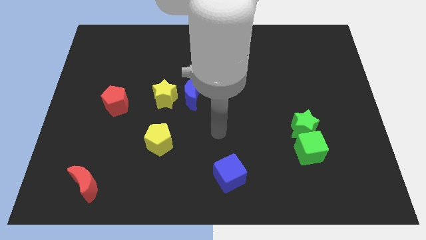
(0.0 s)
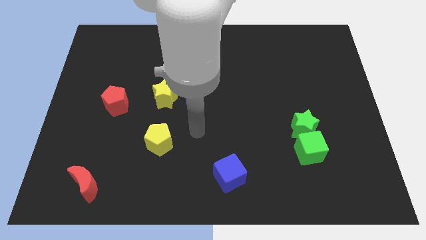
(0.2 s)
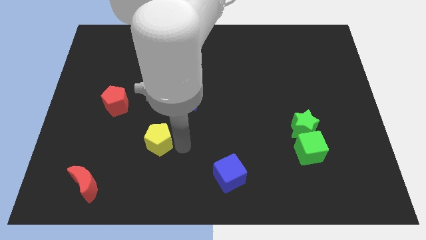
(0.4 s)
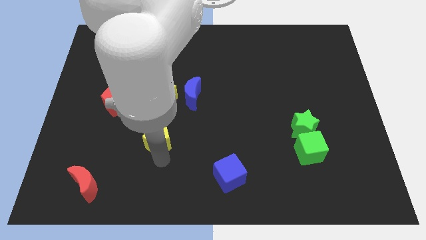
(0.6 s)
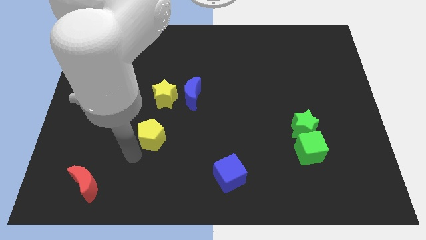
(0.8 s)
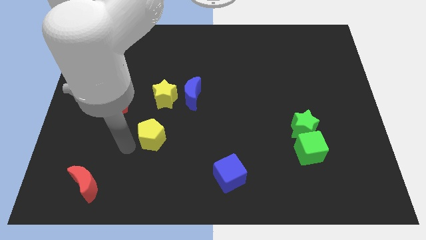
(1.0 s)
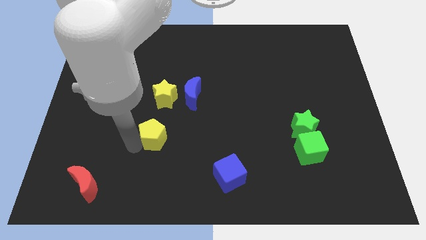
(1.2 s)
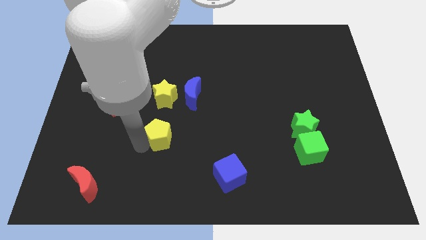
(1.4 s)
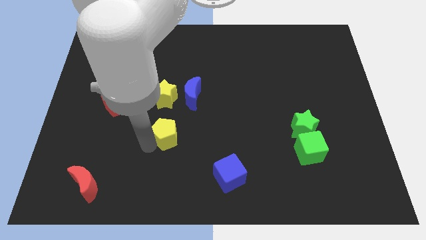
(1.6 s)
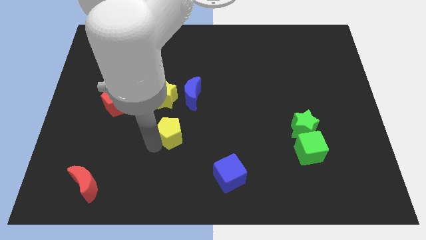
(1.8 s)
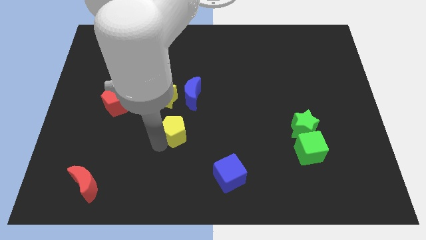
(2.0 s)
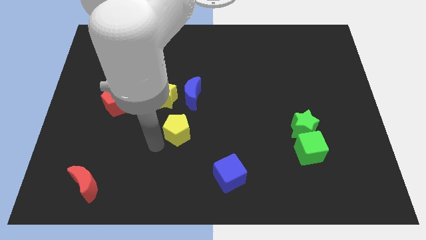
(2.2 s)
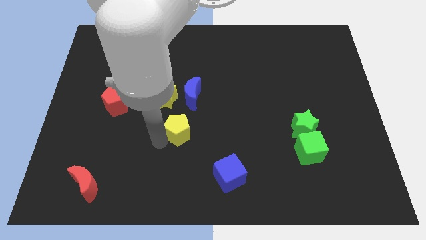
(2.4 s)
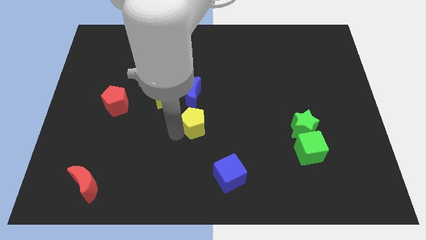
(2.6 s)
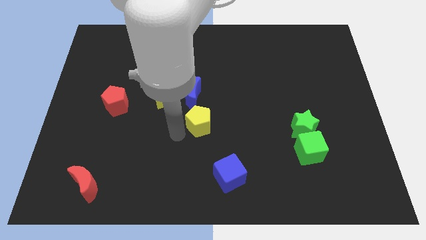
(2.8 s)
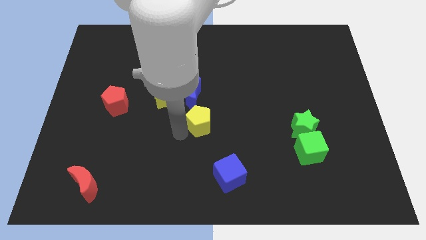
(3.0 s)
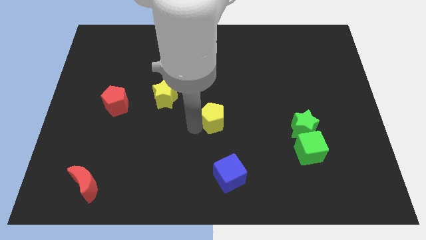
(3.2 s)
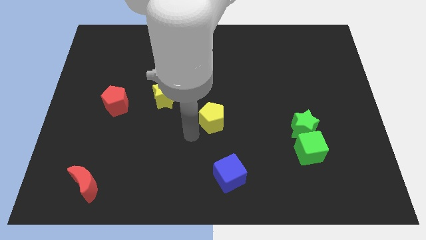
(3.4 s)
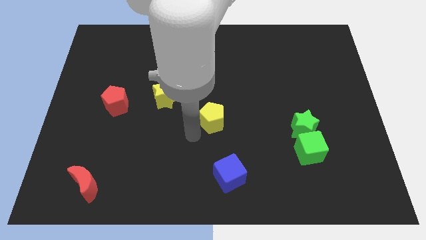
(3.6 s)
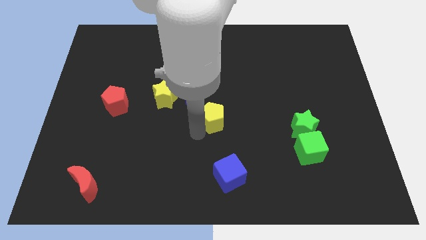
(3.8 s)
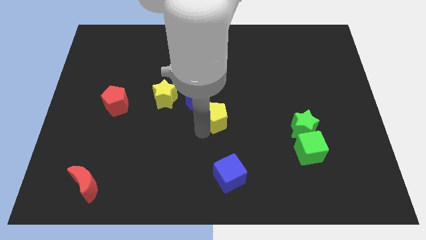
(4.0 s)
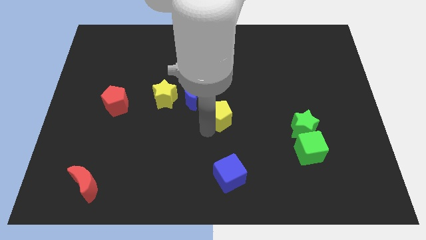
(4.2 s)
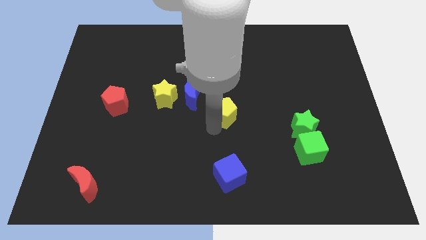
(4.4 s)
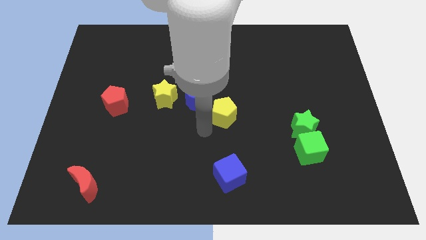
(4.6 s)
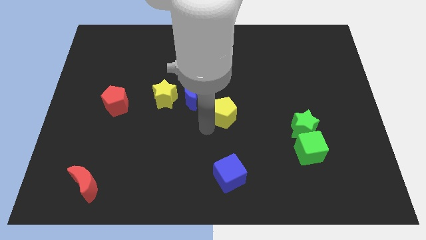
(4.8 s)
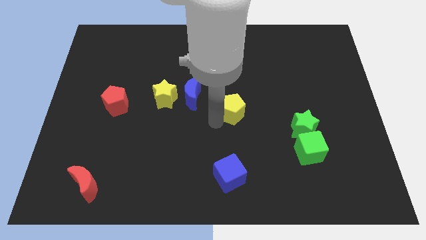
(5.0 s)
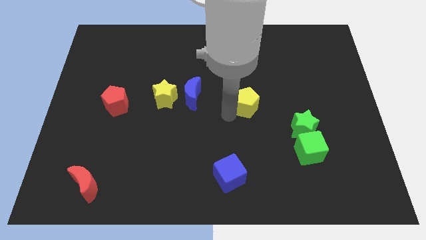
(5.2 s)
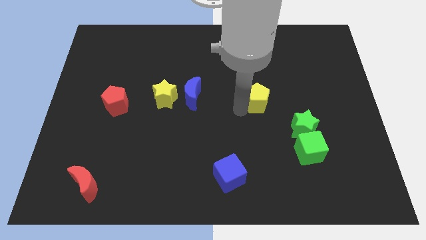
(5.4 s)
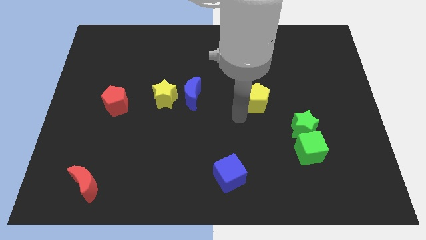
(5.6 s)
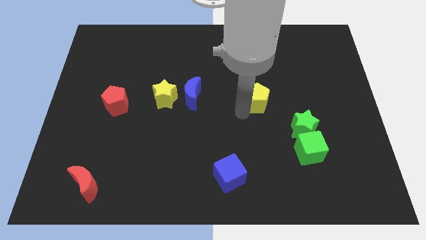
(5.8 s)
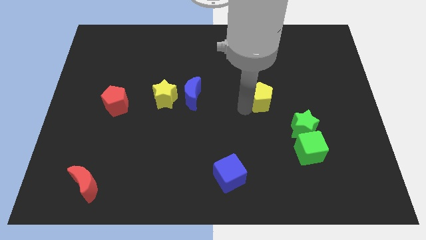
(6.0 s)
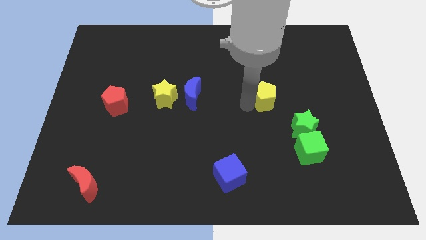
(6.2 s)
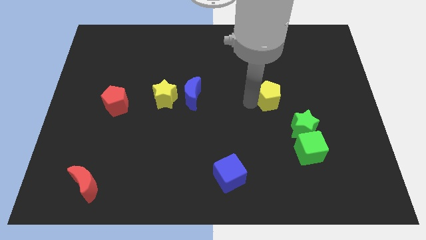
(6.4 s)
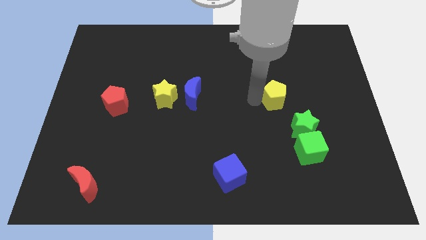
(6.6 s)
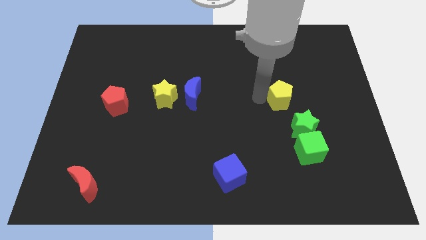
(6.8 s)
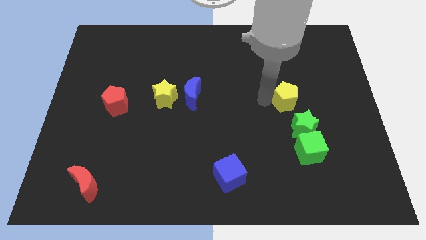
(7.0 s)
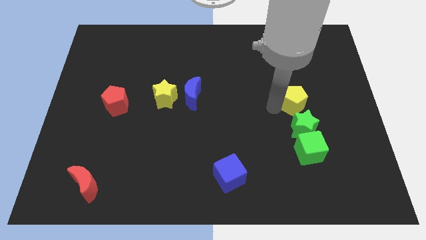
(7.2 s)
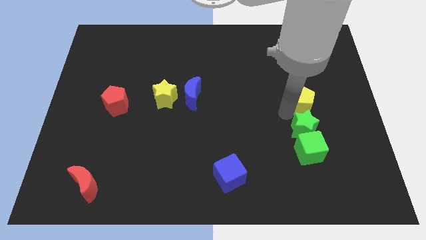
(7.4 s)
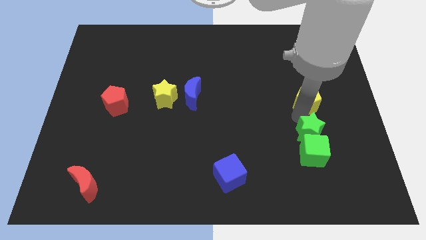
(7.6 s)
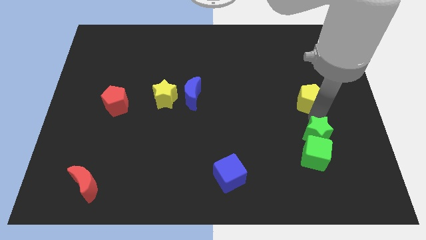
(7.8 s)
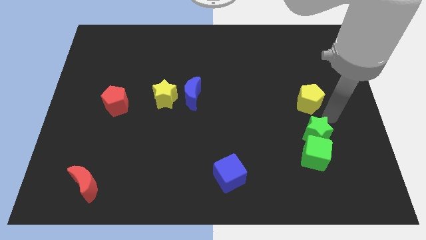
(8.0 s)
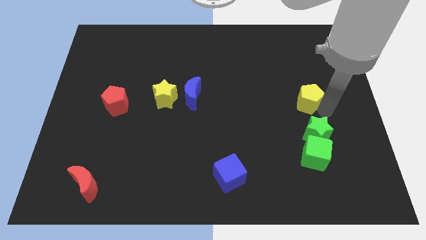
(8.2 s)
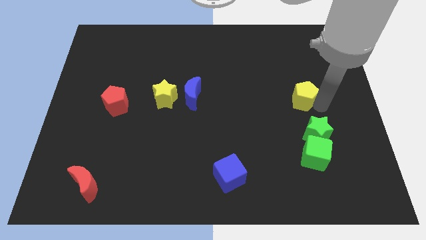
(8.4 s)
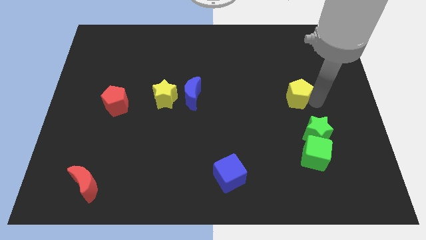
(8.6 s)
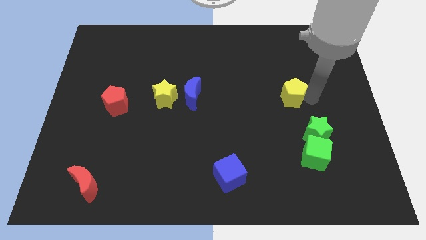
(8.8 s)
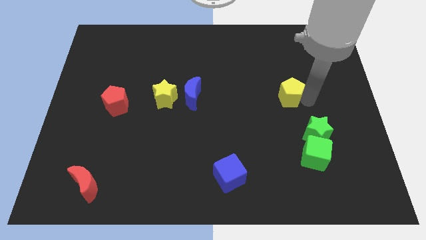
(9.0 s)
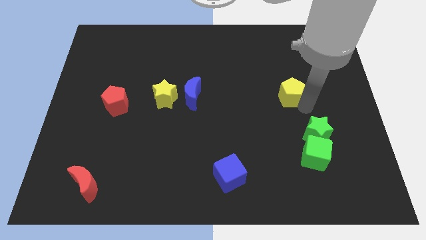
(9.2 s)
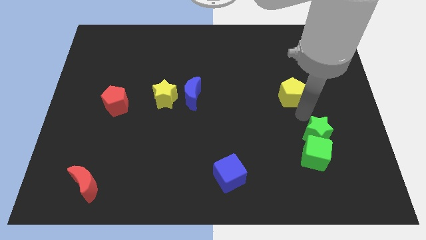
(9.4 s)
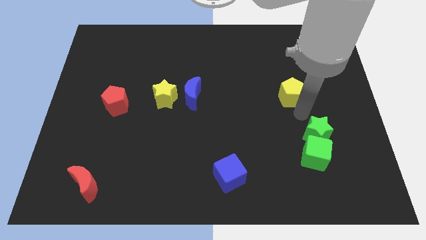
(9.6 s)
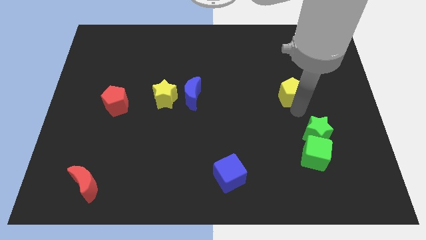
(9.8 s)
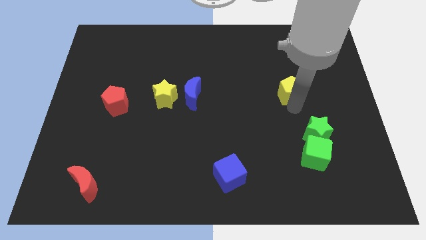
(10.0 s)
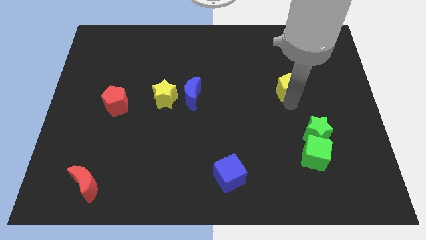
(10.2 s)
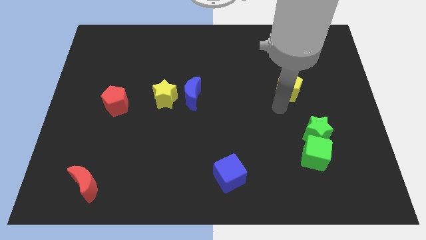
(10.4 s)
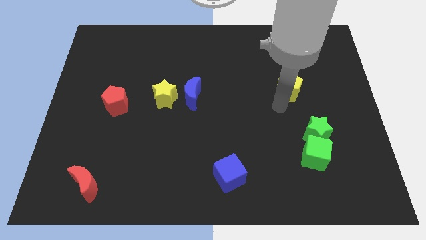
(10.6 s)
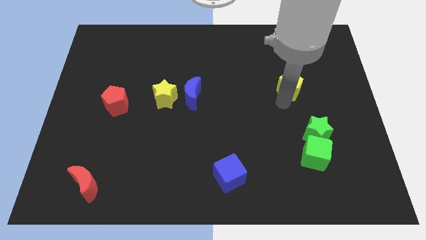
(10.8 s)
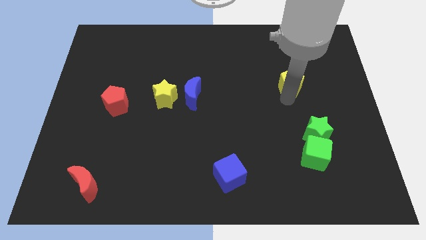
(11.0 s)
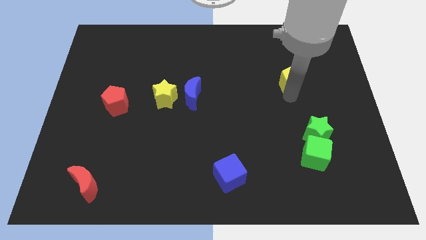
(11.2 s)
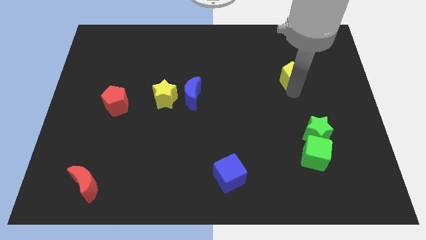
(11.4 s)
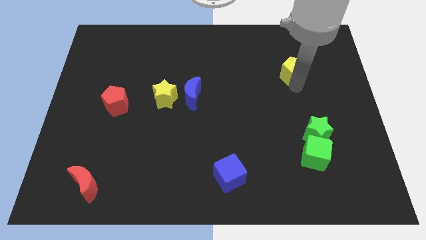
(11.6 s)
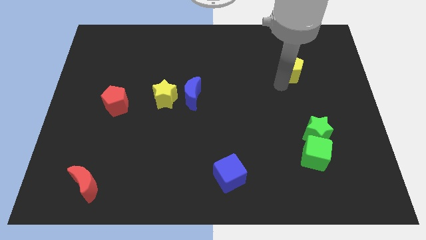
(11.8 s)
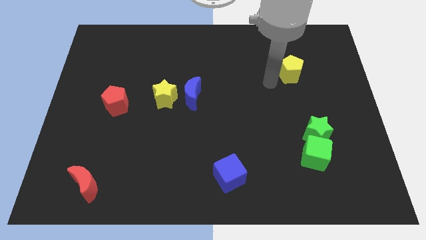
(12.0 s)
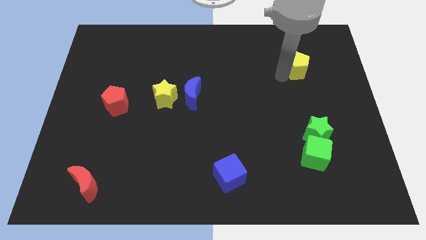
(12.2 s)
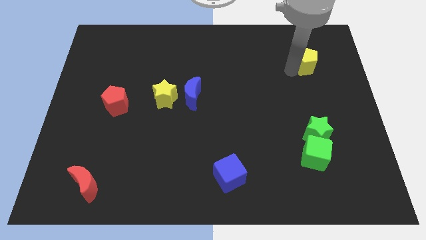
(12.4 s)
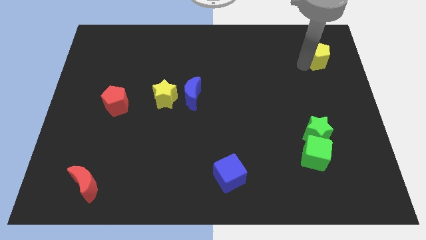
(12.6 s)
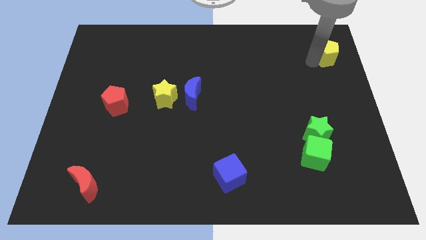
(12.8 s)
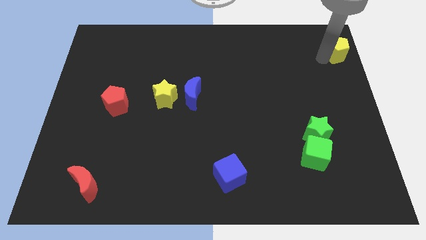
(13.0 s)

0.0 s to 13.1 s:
move the yellow pentagon to the top right

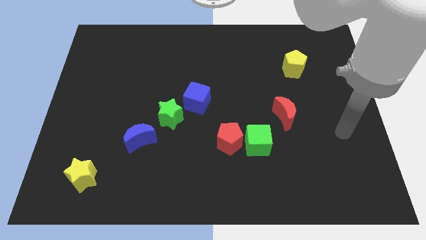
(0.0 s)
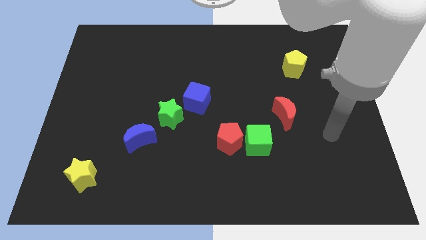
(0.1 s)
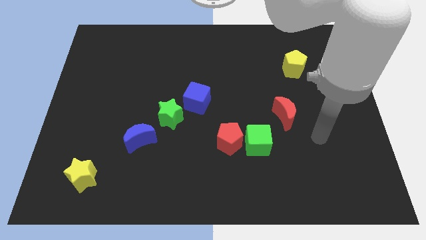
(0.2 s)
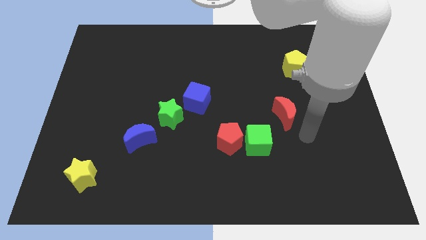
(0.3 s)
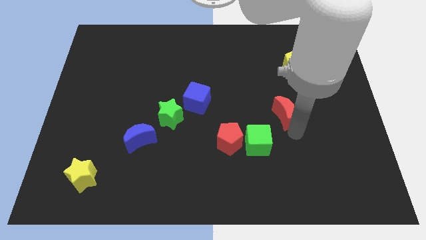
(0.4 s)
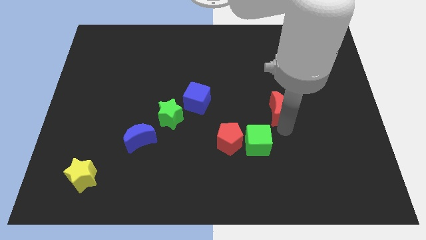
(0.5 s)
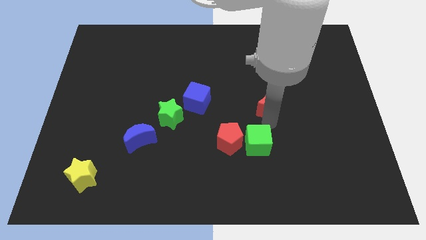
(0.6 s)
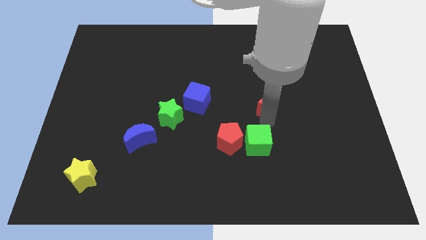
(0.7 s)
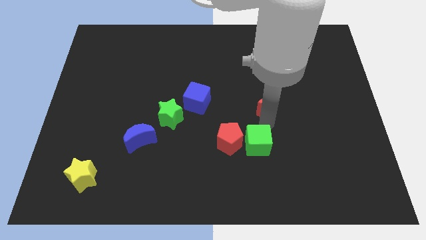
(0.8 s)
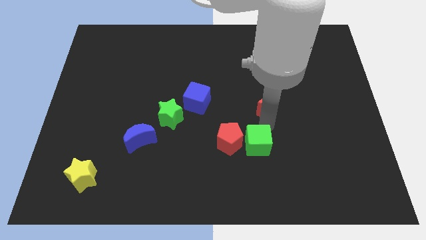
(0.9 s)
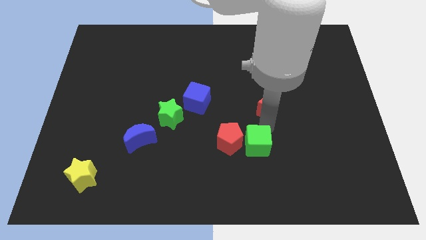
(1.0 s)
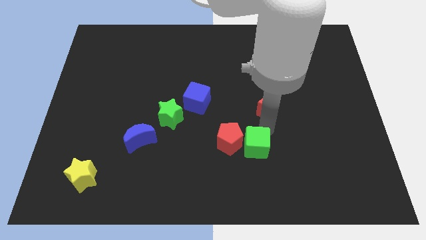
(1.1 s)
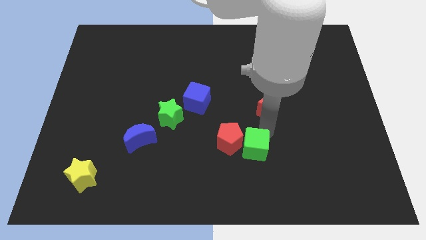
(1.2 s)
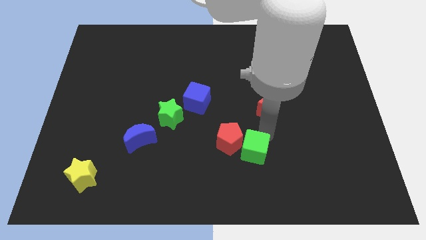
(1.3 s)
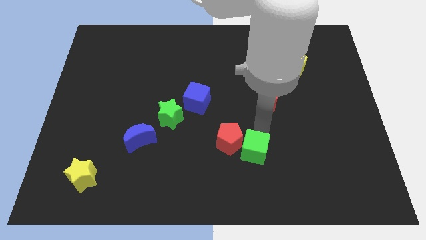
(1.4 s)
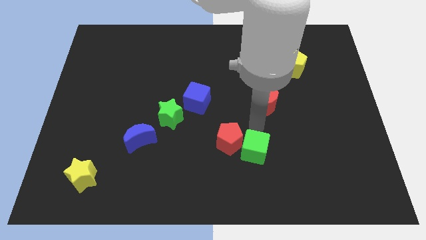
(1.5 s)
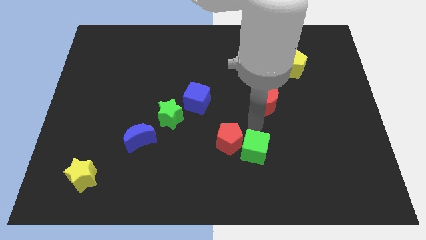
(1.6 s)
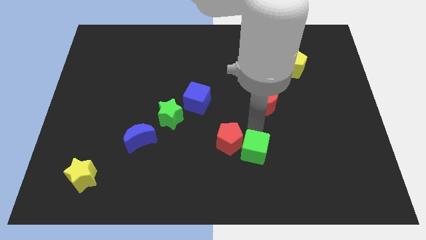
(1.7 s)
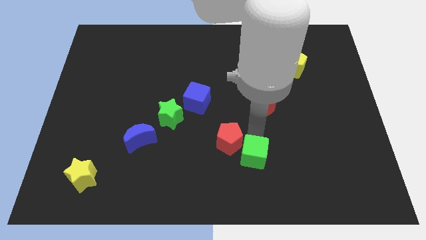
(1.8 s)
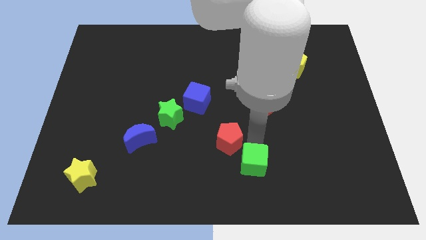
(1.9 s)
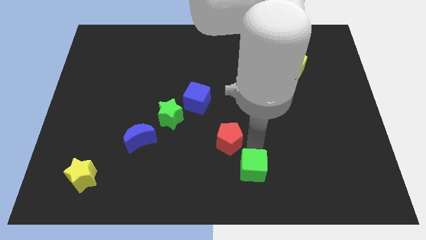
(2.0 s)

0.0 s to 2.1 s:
slide the green cube to the bottom side
